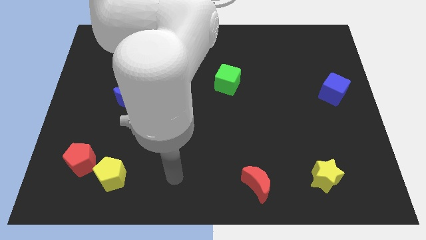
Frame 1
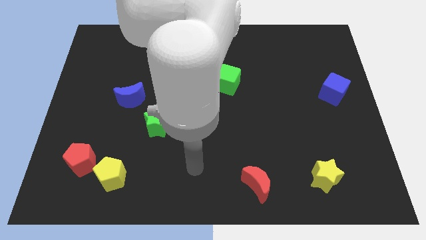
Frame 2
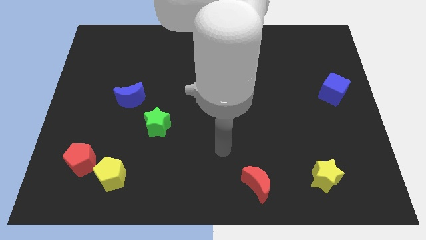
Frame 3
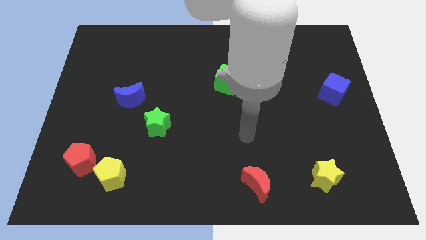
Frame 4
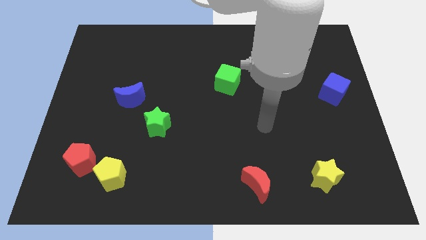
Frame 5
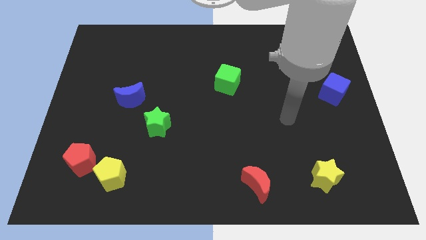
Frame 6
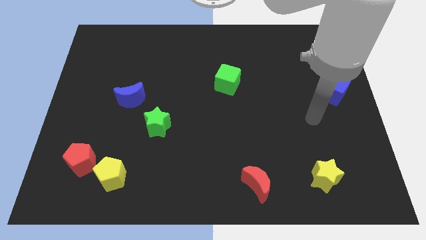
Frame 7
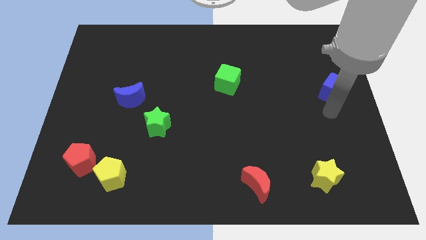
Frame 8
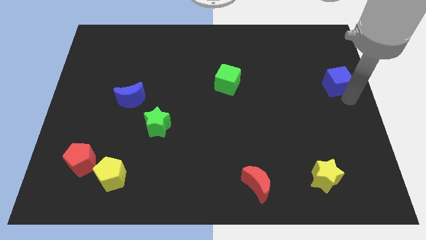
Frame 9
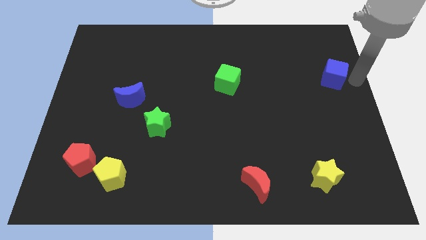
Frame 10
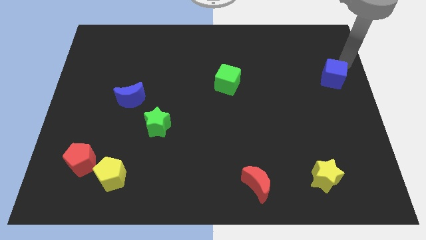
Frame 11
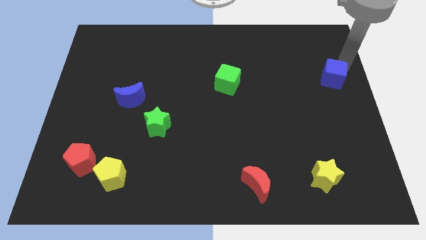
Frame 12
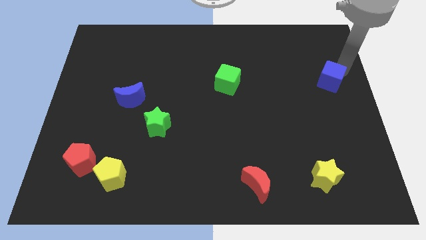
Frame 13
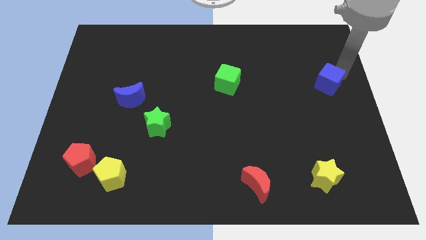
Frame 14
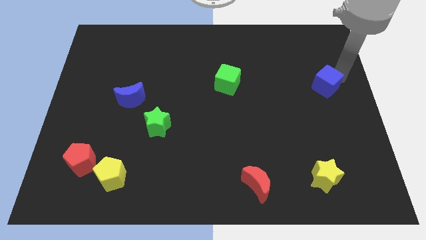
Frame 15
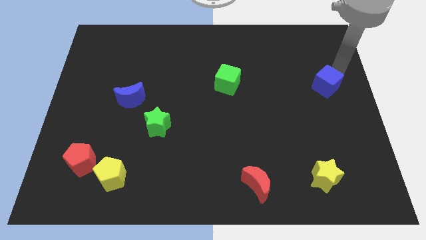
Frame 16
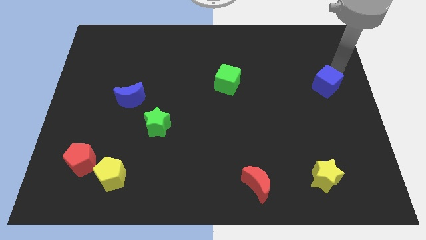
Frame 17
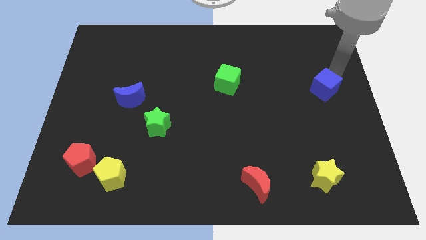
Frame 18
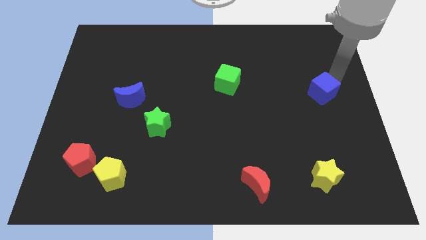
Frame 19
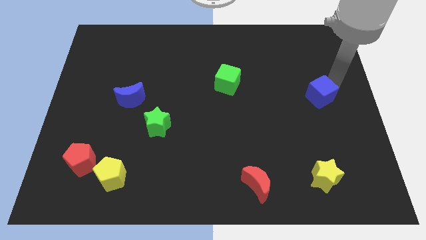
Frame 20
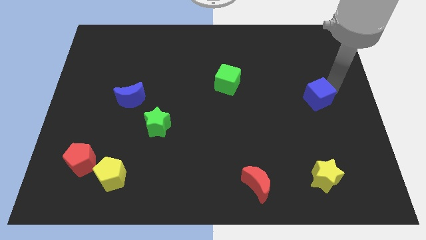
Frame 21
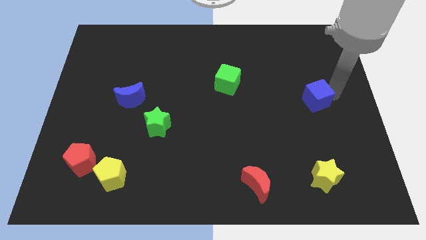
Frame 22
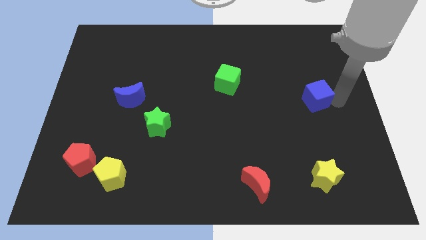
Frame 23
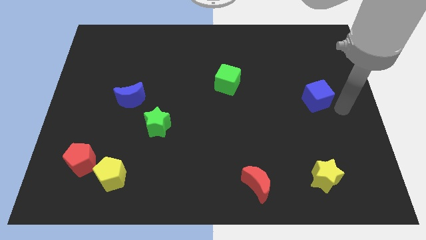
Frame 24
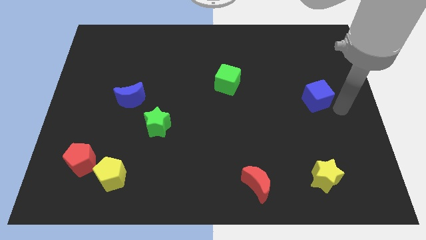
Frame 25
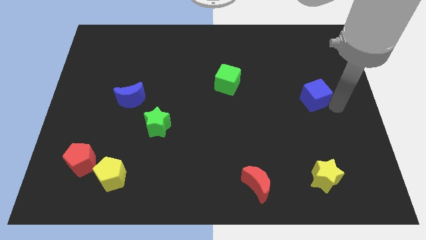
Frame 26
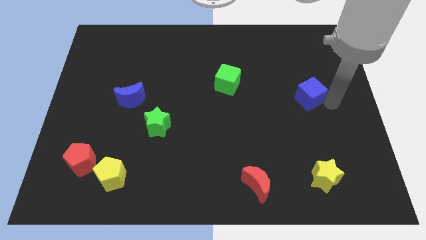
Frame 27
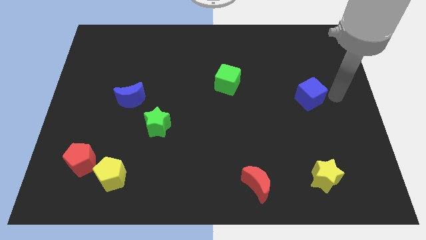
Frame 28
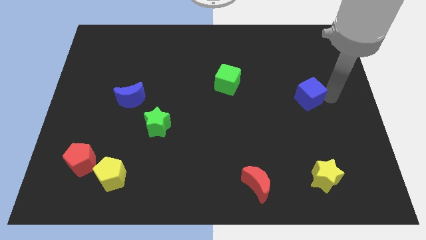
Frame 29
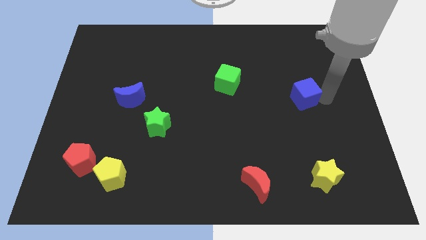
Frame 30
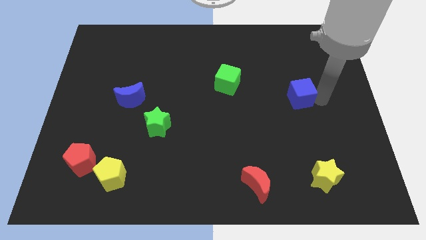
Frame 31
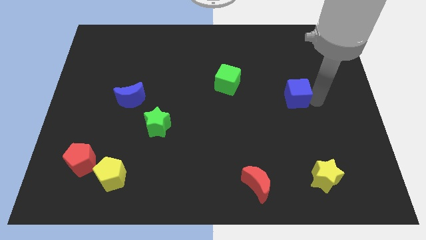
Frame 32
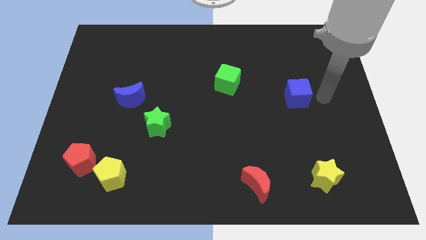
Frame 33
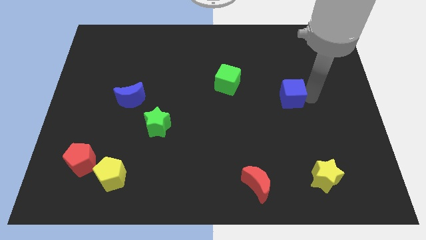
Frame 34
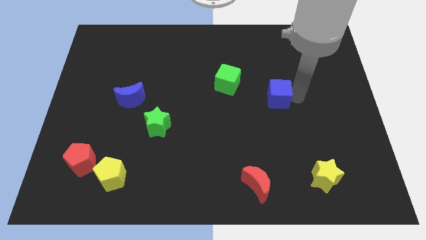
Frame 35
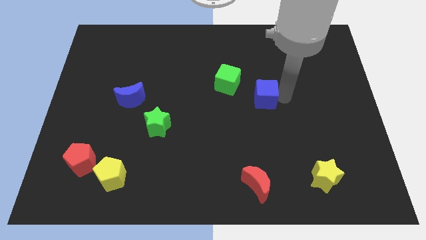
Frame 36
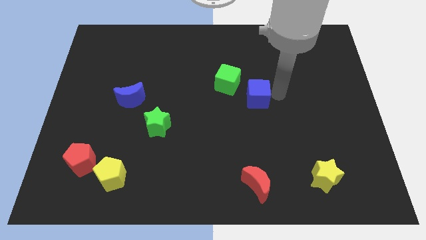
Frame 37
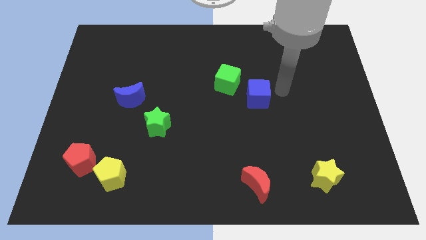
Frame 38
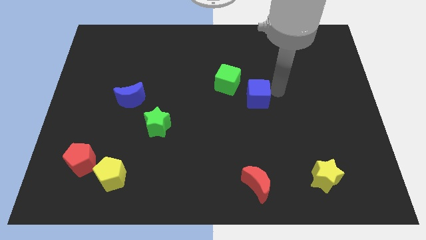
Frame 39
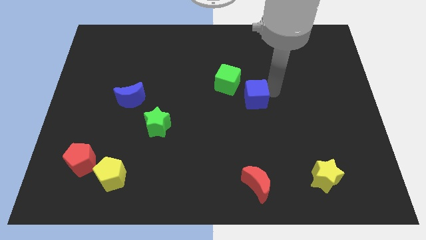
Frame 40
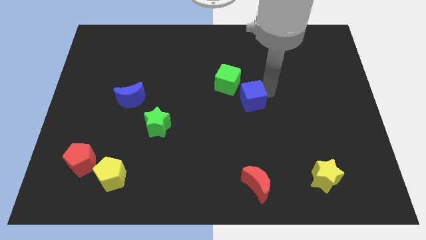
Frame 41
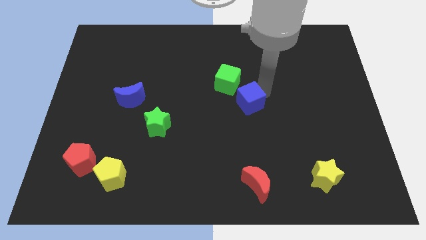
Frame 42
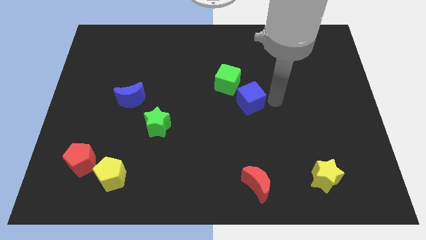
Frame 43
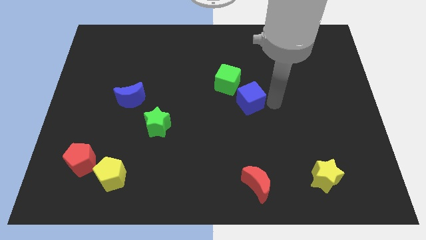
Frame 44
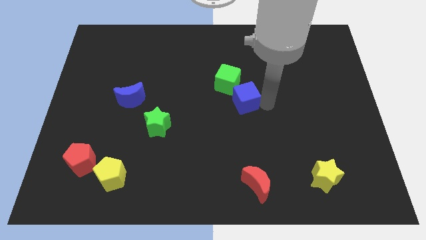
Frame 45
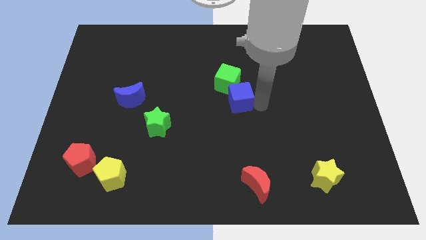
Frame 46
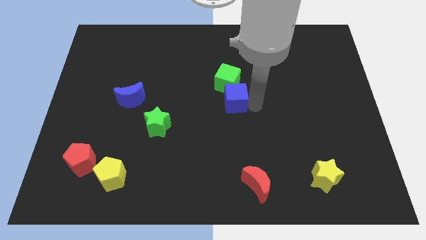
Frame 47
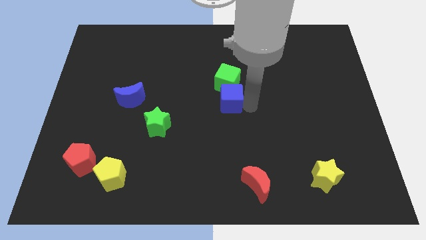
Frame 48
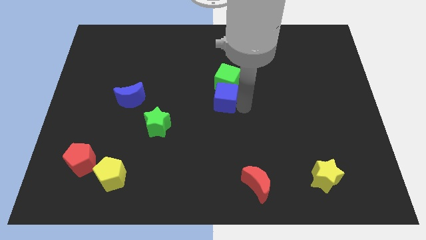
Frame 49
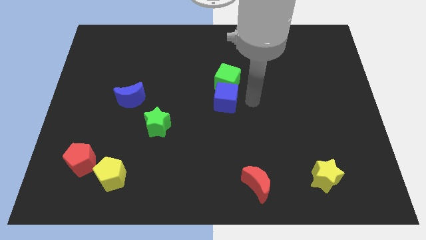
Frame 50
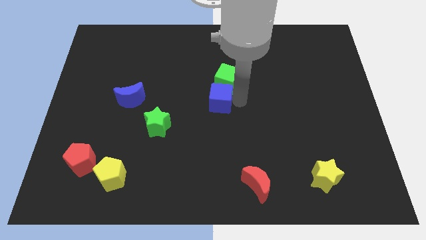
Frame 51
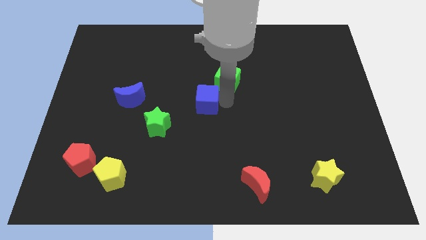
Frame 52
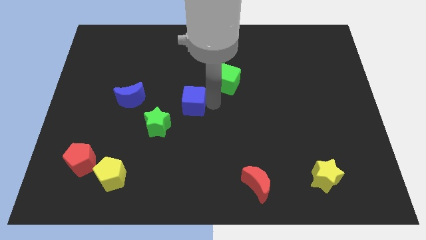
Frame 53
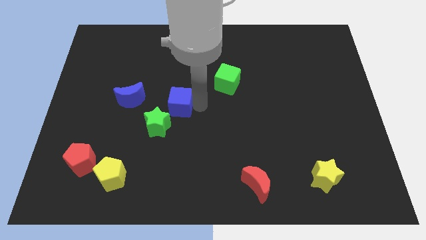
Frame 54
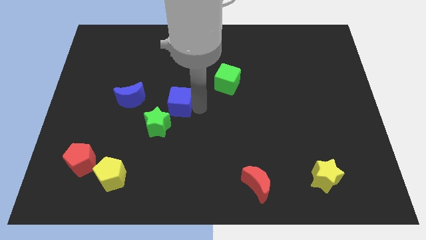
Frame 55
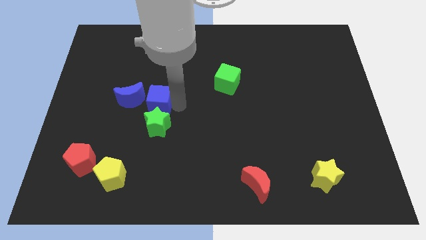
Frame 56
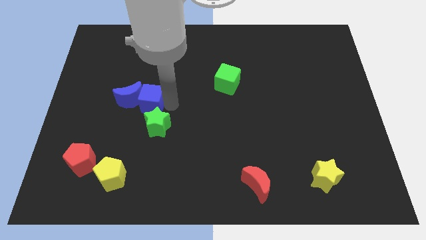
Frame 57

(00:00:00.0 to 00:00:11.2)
push the blue cube next to the blue moon

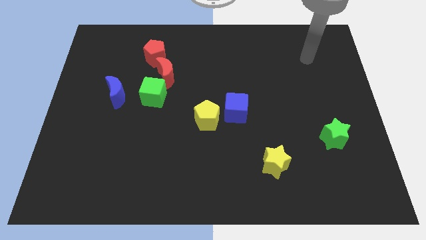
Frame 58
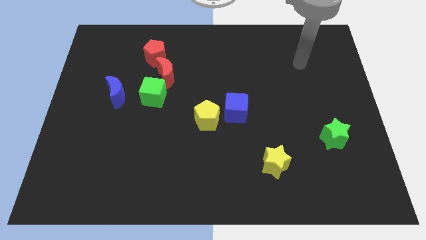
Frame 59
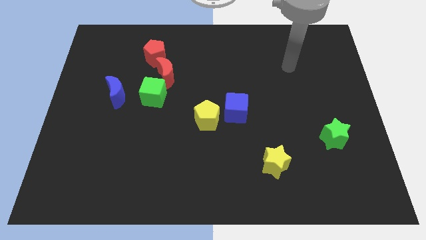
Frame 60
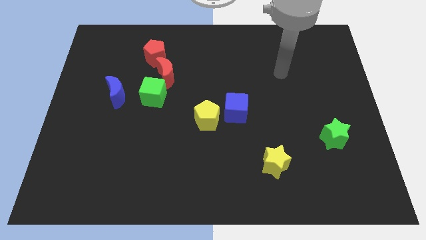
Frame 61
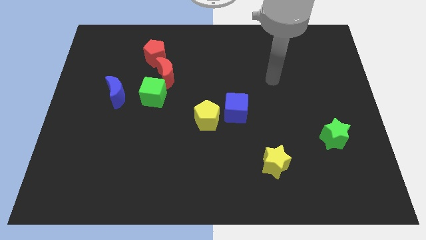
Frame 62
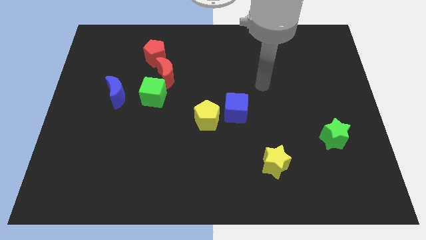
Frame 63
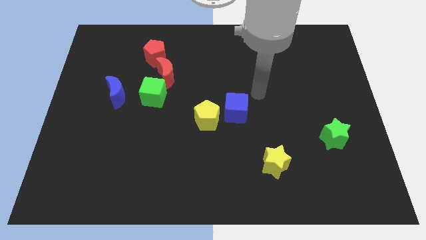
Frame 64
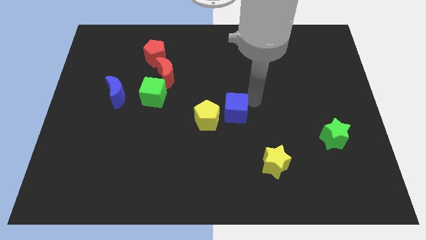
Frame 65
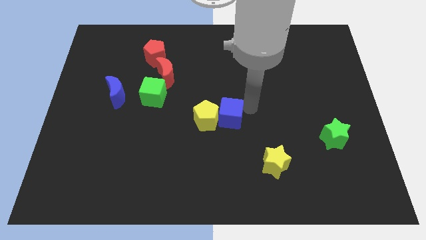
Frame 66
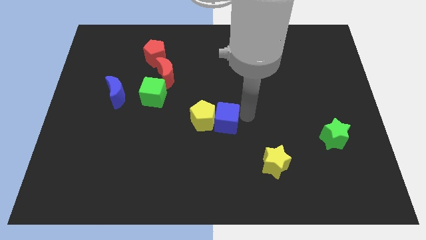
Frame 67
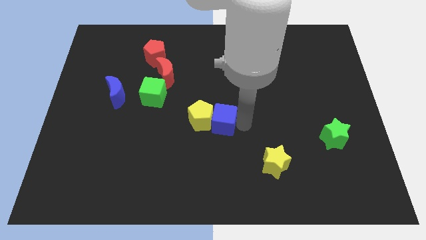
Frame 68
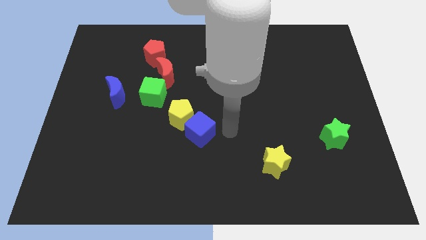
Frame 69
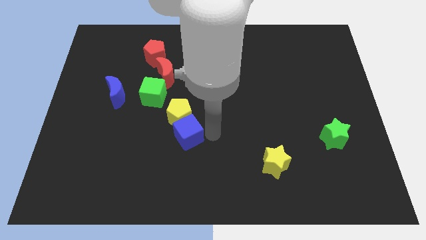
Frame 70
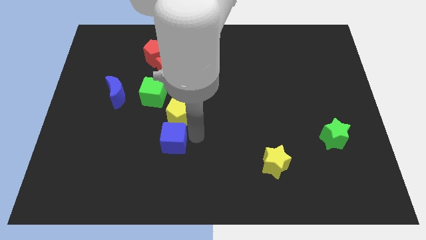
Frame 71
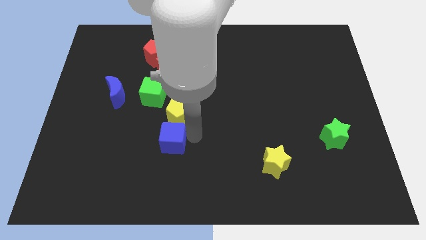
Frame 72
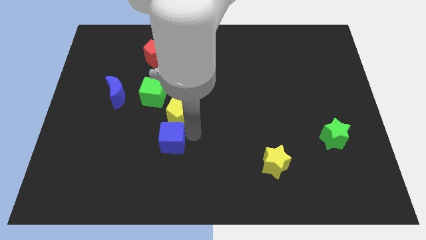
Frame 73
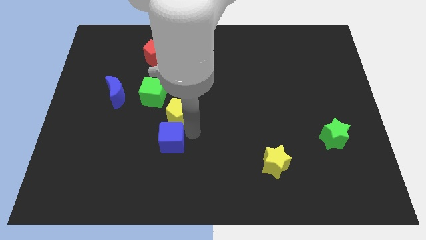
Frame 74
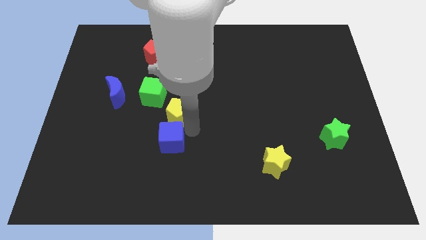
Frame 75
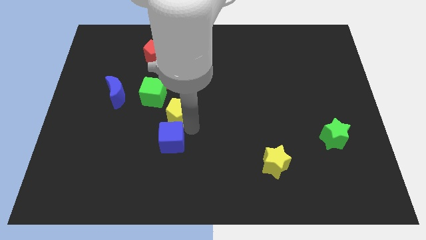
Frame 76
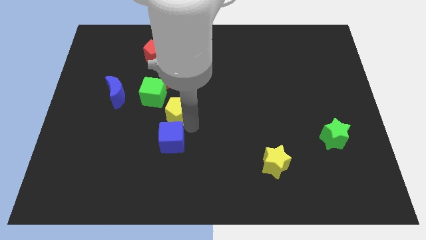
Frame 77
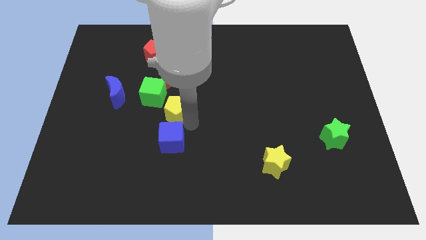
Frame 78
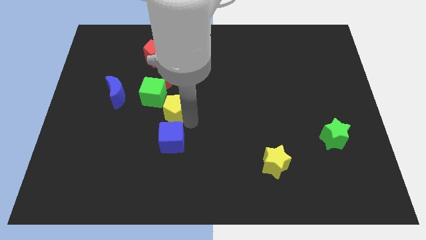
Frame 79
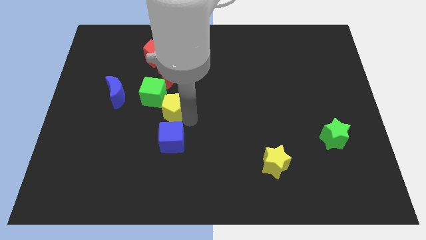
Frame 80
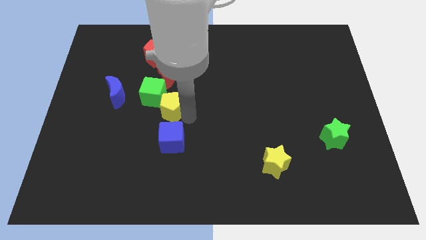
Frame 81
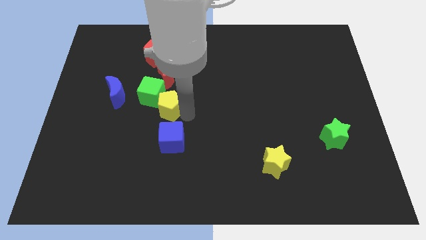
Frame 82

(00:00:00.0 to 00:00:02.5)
slide the yellow pentagon close to the green cube
